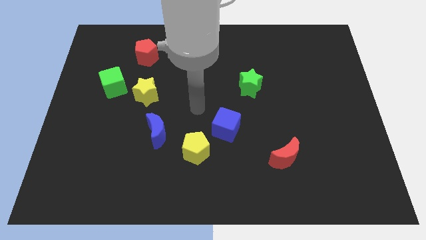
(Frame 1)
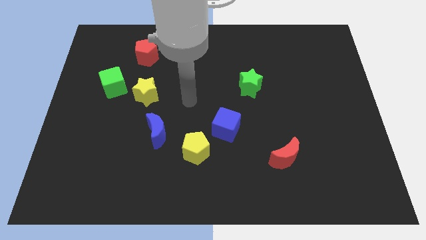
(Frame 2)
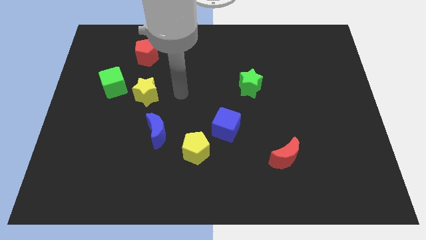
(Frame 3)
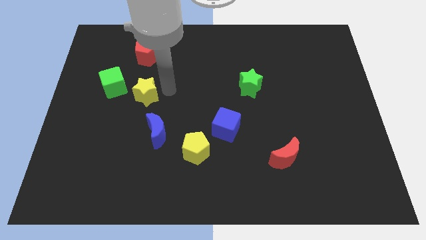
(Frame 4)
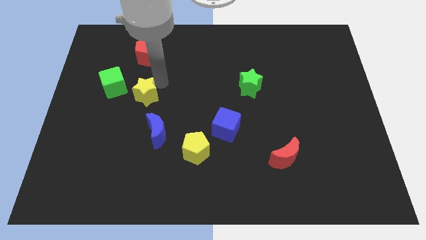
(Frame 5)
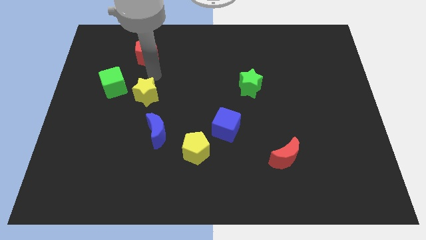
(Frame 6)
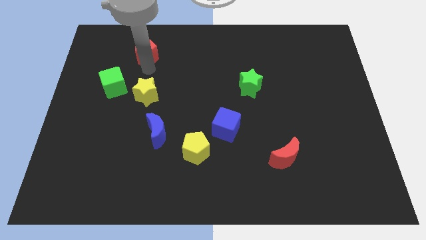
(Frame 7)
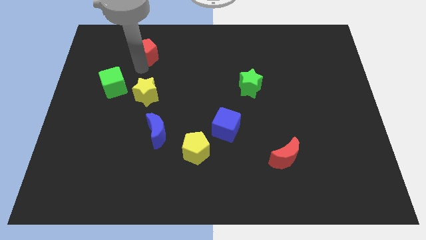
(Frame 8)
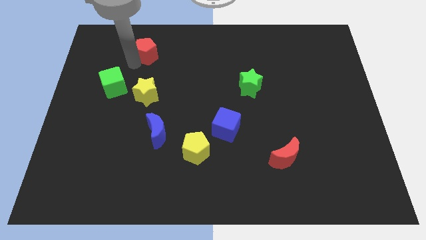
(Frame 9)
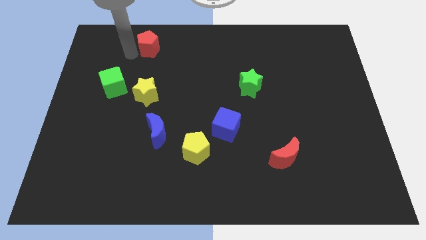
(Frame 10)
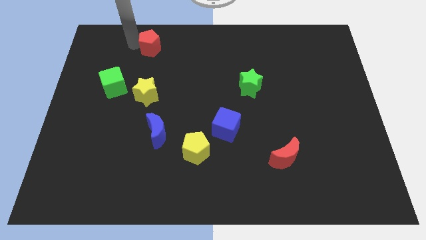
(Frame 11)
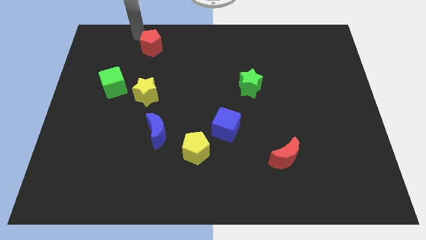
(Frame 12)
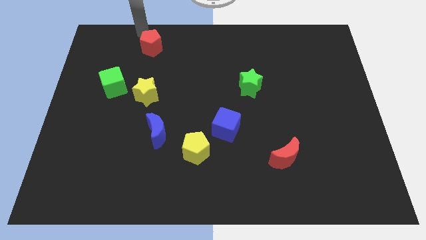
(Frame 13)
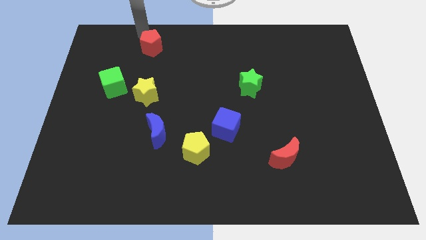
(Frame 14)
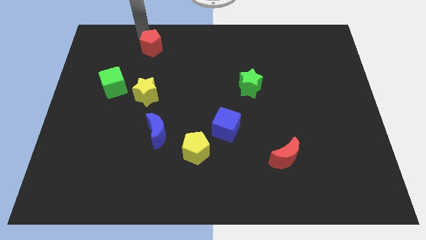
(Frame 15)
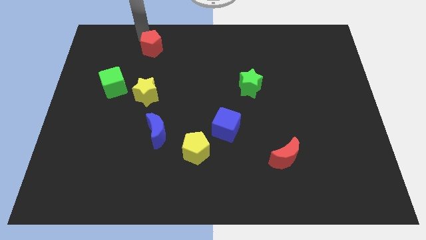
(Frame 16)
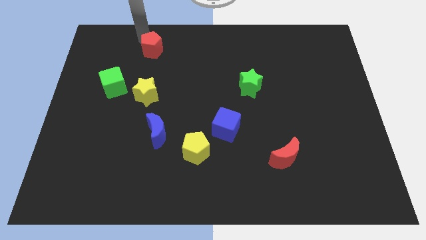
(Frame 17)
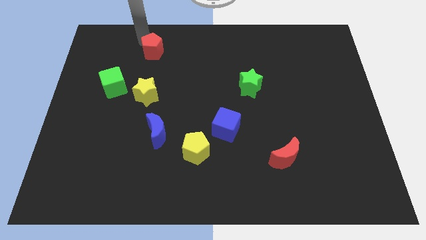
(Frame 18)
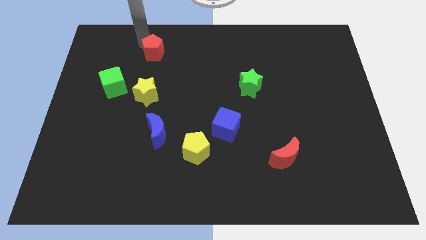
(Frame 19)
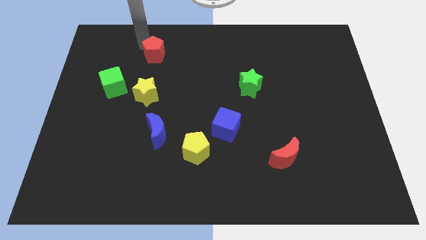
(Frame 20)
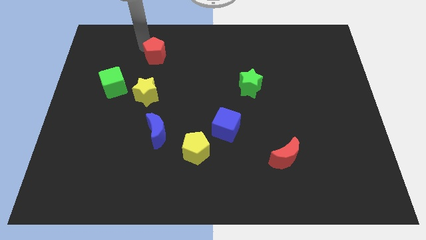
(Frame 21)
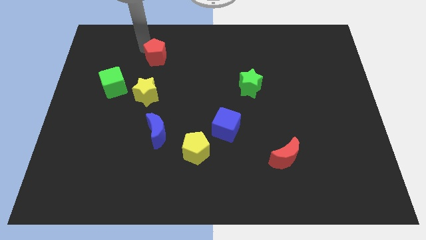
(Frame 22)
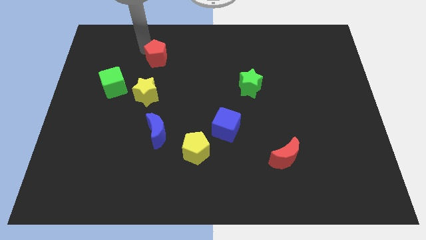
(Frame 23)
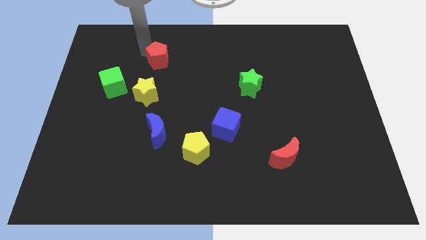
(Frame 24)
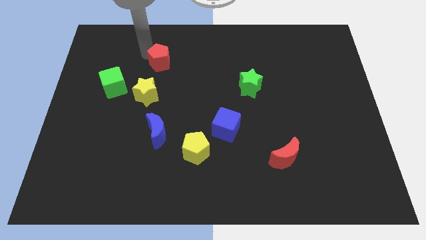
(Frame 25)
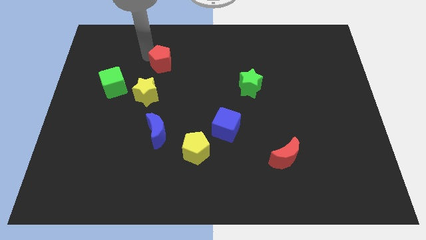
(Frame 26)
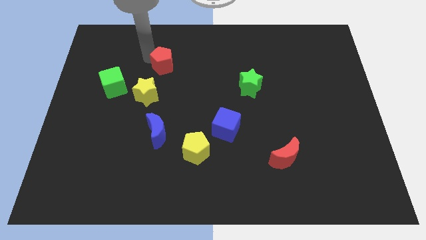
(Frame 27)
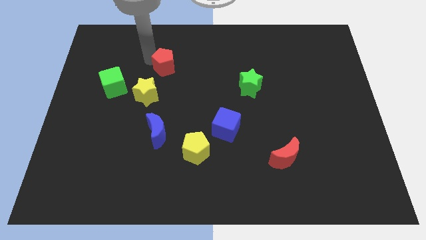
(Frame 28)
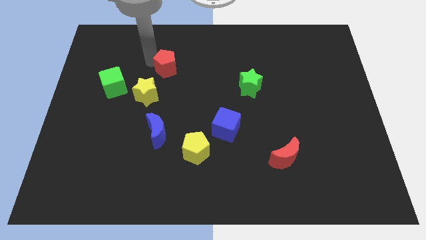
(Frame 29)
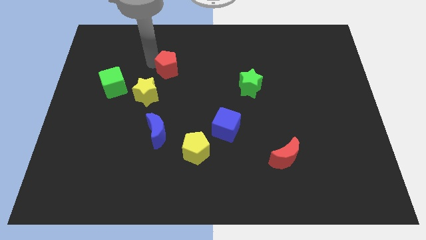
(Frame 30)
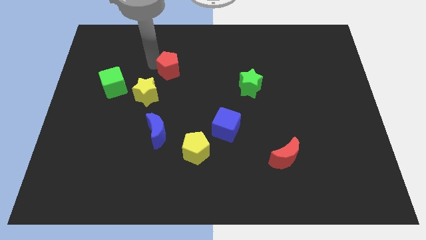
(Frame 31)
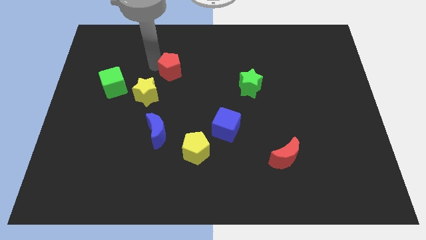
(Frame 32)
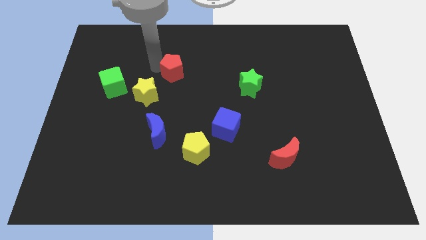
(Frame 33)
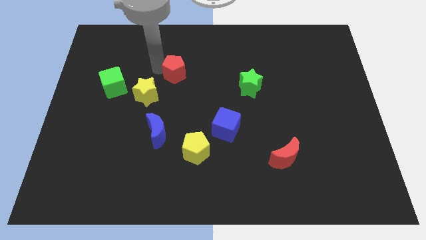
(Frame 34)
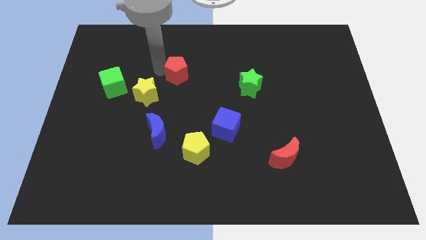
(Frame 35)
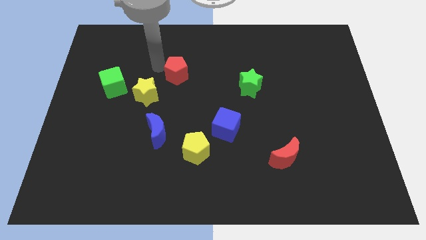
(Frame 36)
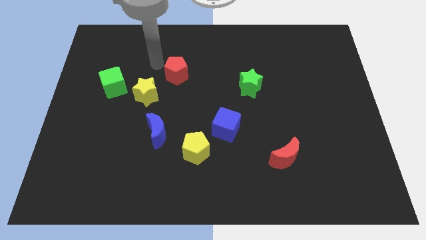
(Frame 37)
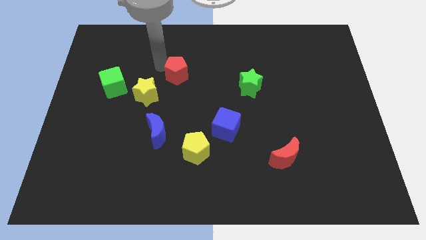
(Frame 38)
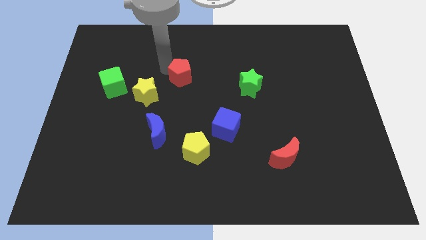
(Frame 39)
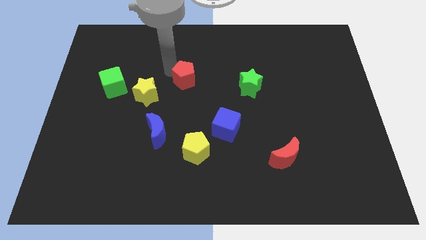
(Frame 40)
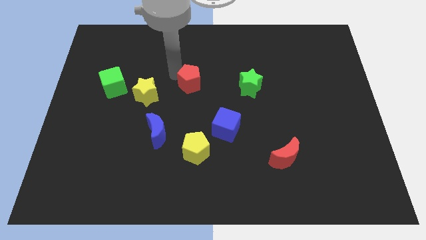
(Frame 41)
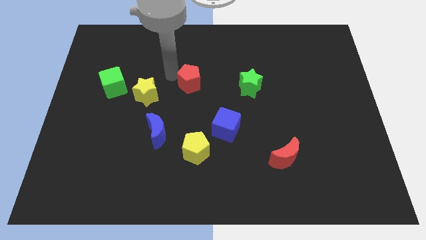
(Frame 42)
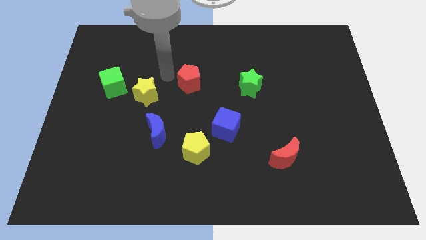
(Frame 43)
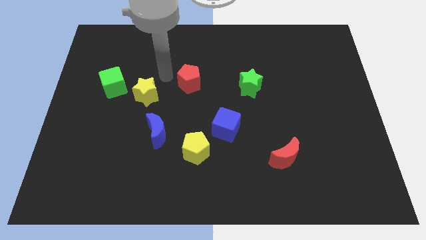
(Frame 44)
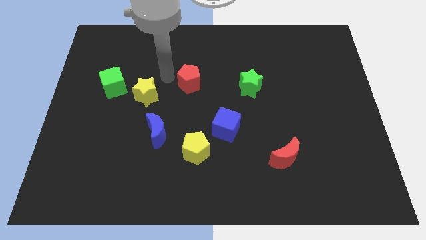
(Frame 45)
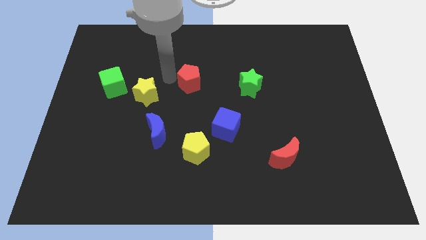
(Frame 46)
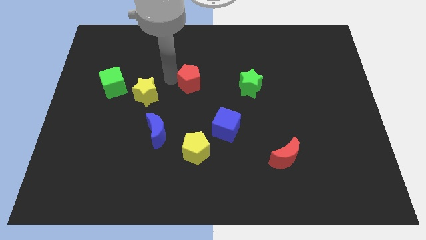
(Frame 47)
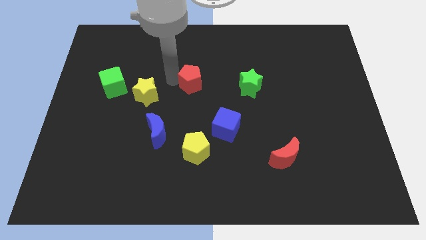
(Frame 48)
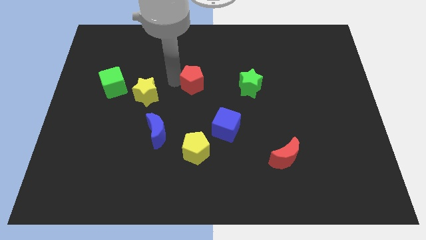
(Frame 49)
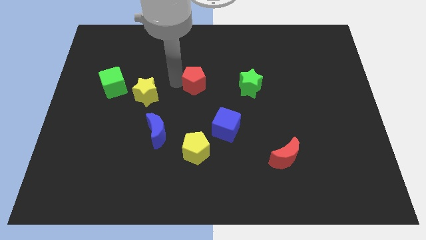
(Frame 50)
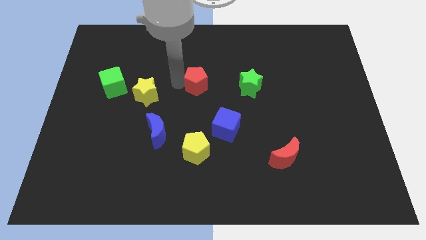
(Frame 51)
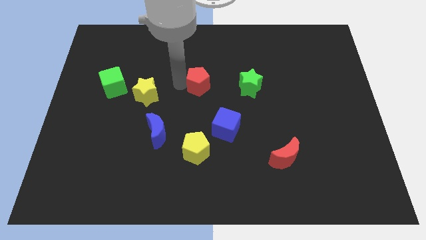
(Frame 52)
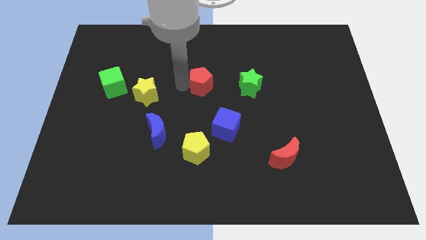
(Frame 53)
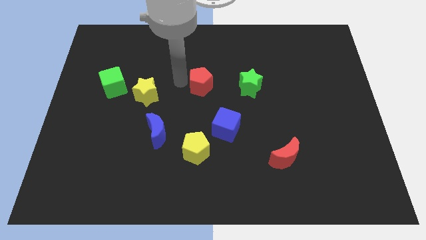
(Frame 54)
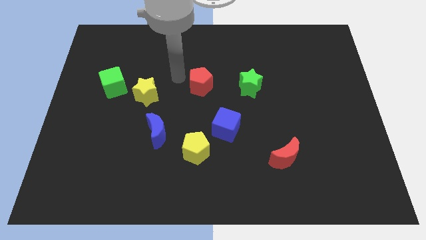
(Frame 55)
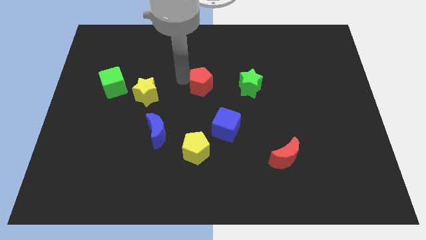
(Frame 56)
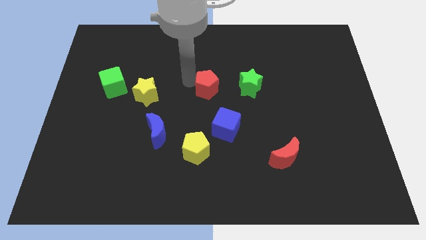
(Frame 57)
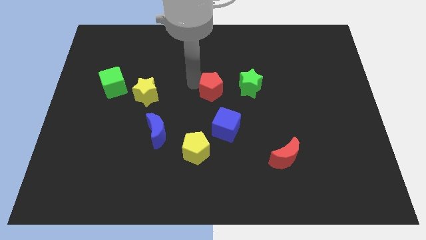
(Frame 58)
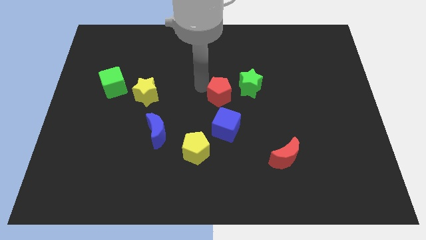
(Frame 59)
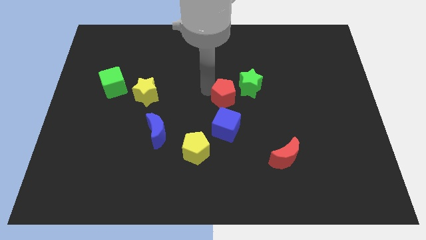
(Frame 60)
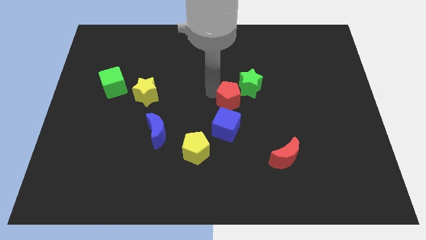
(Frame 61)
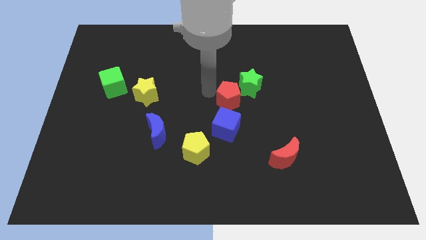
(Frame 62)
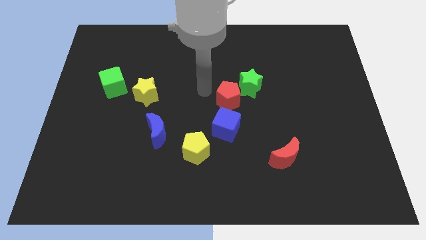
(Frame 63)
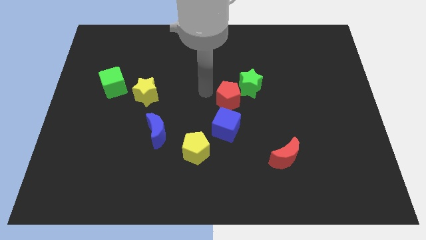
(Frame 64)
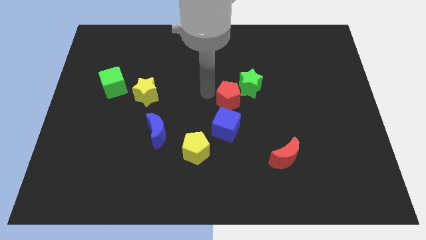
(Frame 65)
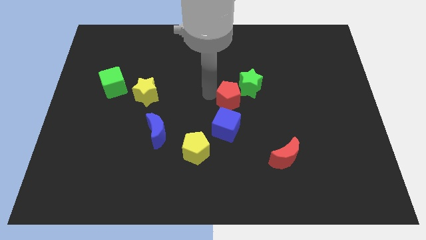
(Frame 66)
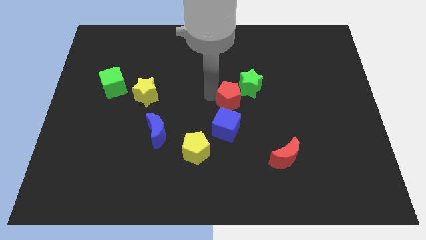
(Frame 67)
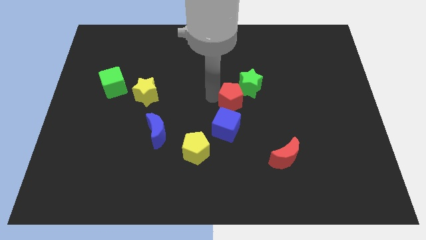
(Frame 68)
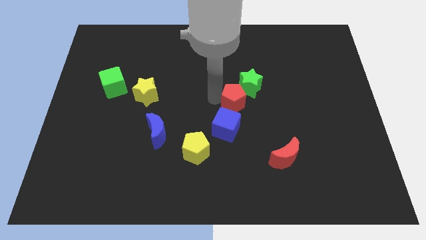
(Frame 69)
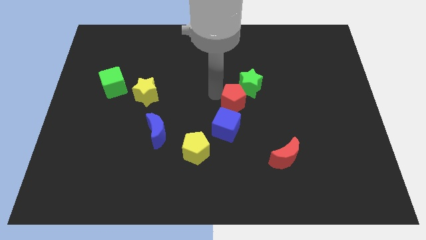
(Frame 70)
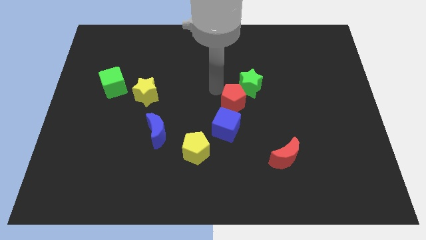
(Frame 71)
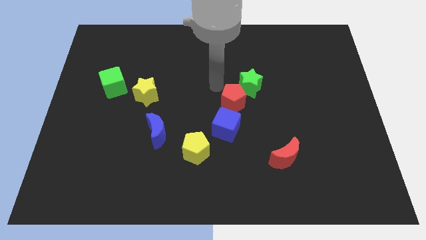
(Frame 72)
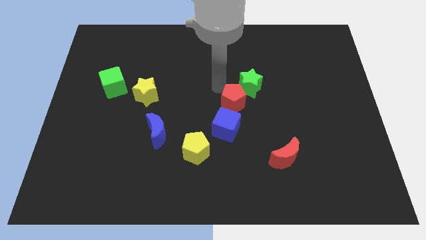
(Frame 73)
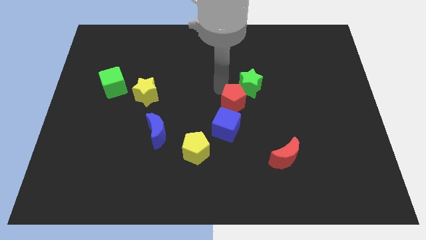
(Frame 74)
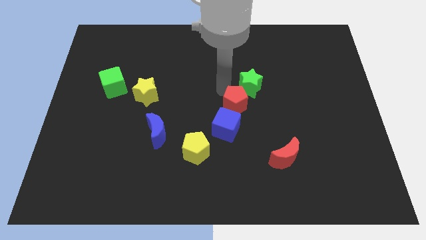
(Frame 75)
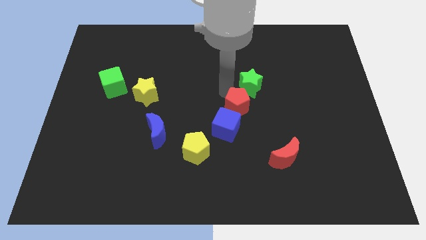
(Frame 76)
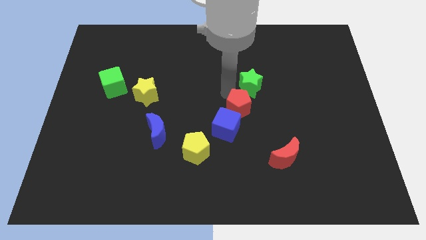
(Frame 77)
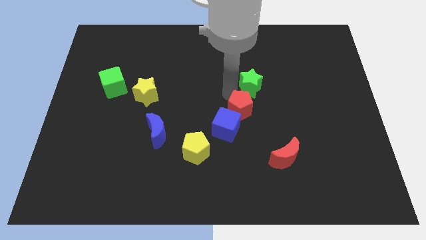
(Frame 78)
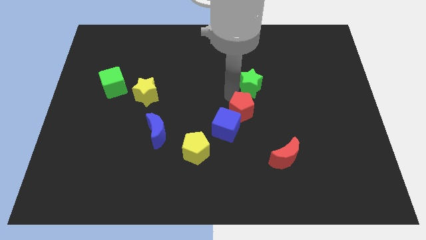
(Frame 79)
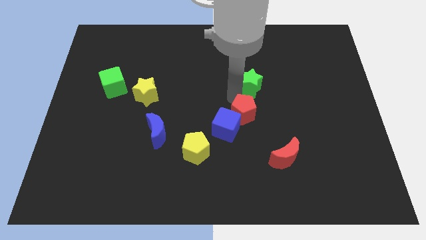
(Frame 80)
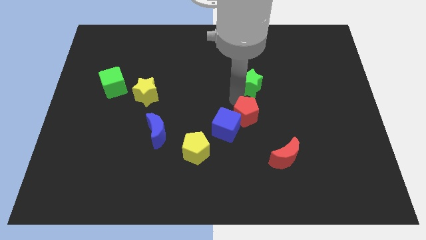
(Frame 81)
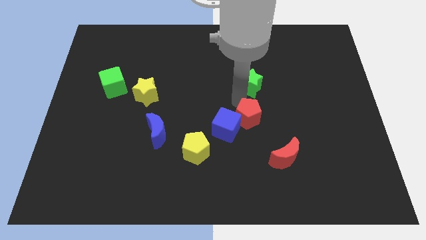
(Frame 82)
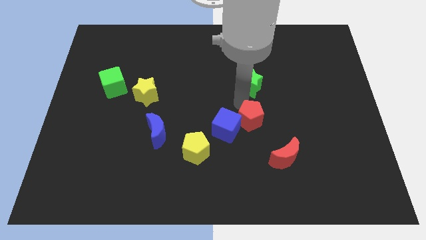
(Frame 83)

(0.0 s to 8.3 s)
put the red pentagon diagonally up and to the left of the red moon

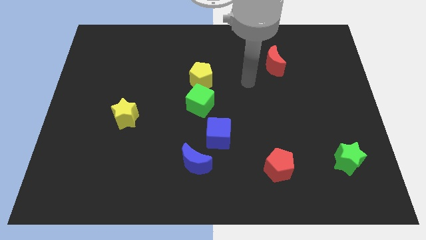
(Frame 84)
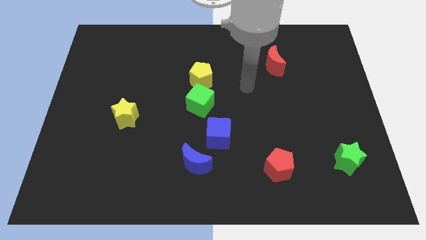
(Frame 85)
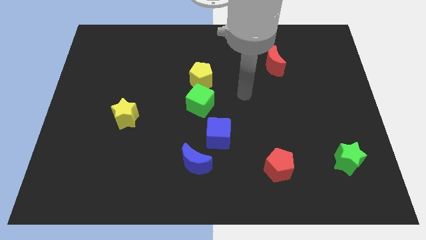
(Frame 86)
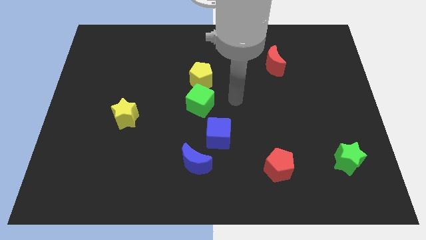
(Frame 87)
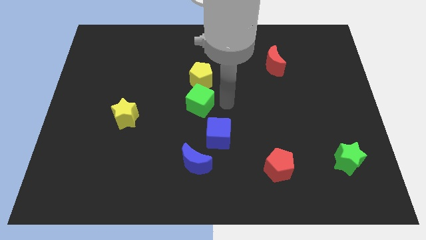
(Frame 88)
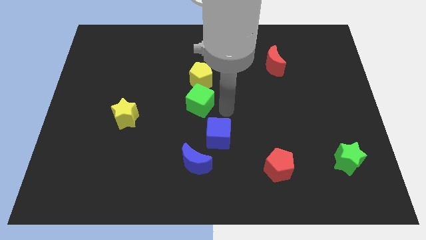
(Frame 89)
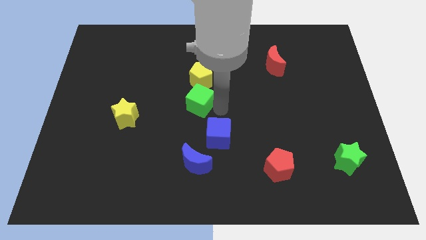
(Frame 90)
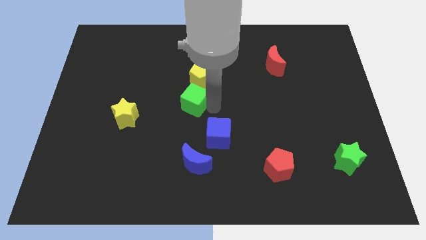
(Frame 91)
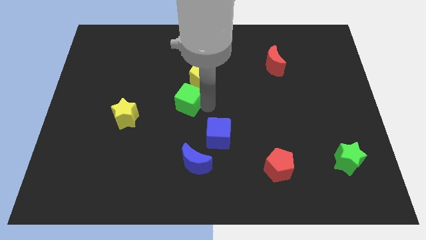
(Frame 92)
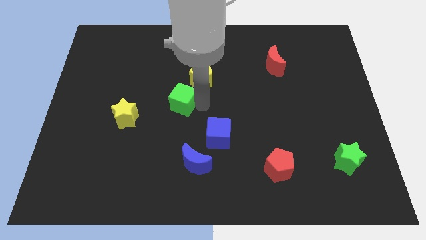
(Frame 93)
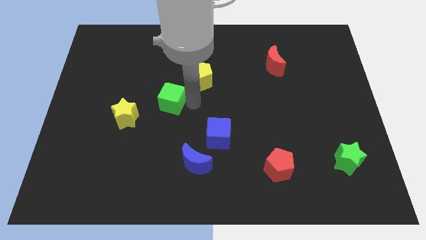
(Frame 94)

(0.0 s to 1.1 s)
push the green cube to the top right of the yellow star
